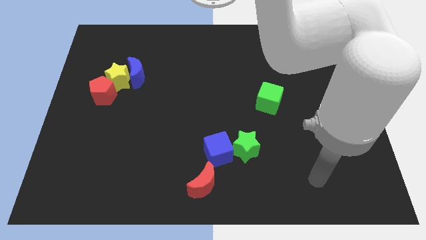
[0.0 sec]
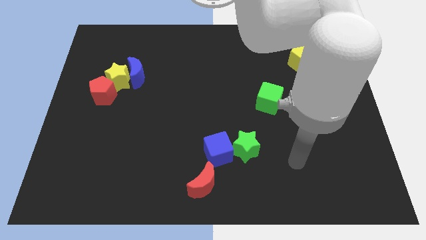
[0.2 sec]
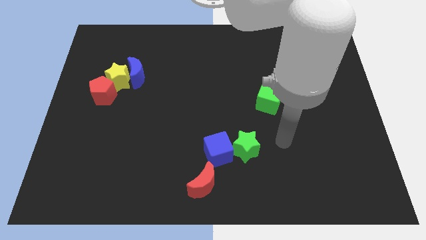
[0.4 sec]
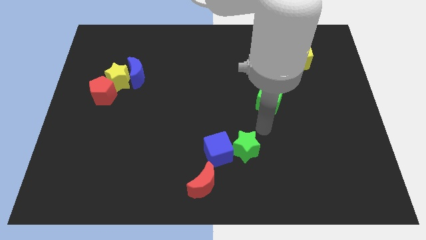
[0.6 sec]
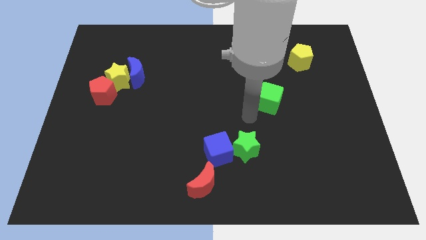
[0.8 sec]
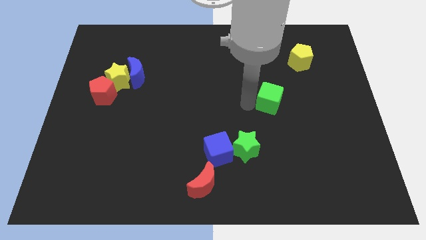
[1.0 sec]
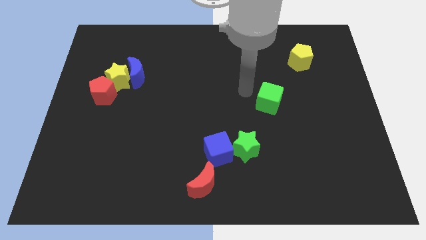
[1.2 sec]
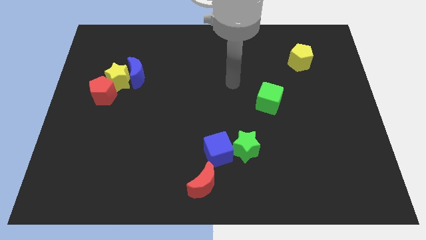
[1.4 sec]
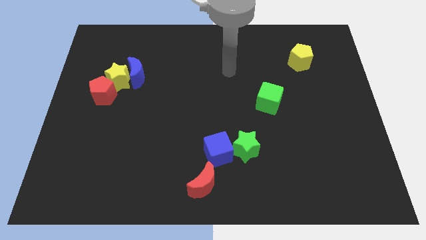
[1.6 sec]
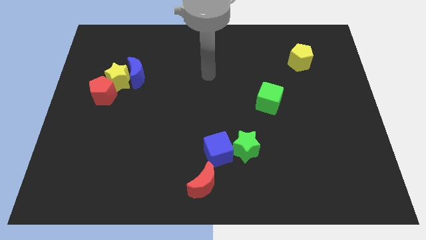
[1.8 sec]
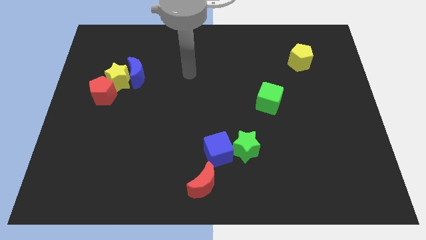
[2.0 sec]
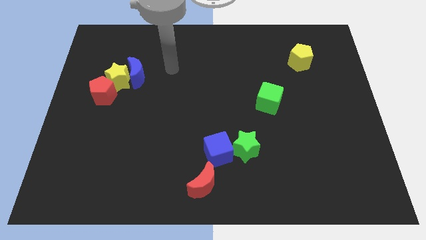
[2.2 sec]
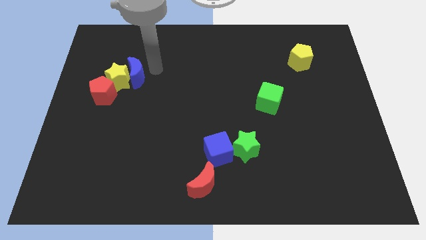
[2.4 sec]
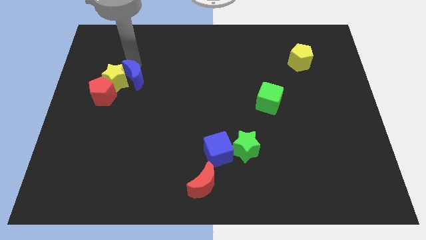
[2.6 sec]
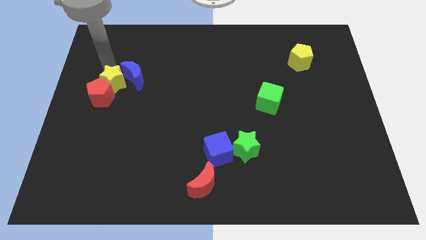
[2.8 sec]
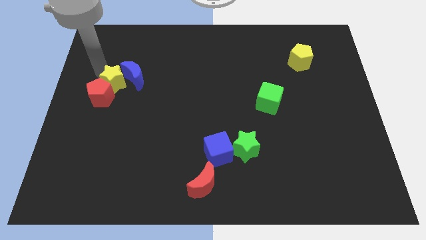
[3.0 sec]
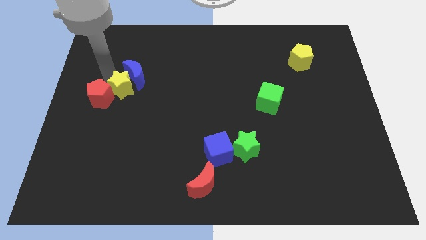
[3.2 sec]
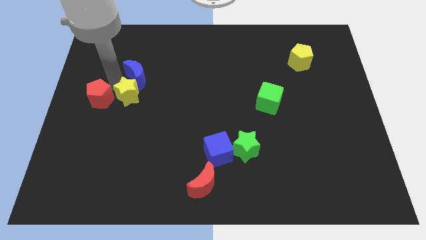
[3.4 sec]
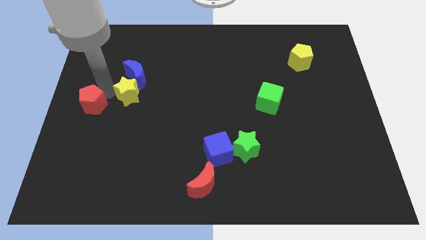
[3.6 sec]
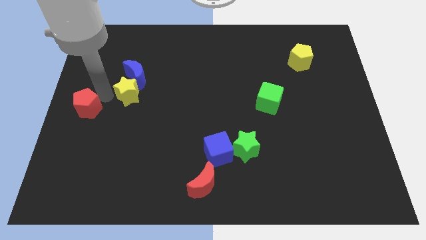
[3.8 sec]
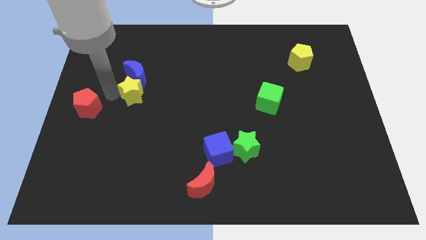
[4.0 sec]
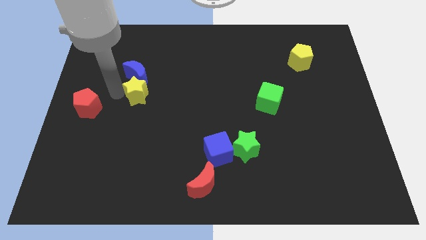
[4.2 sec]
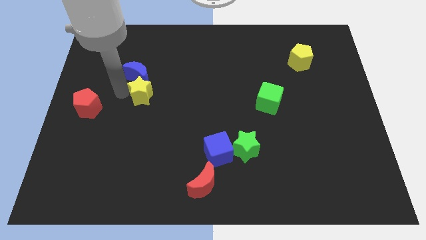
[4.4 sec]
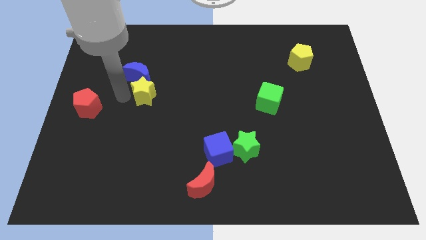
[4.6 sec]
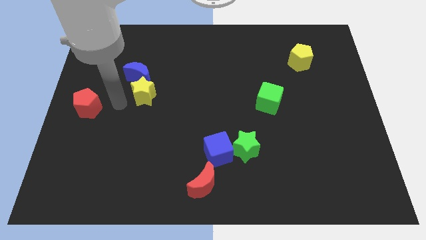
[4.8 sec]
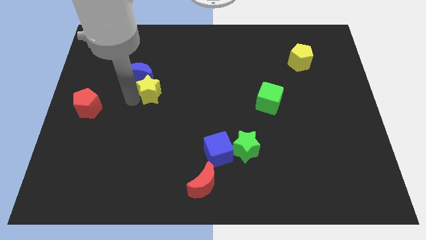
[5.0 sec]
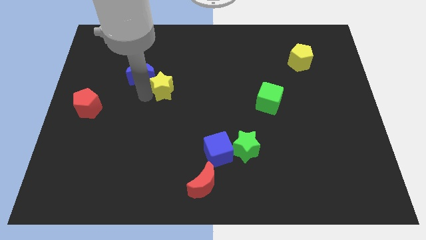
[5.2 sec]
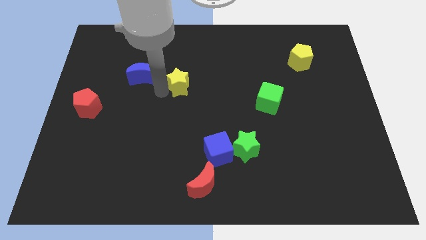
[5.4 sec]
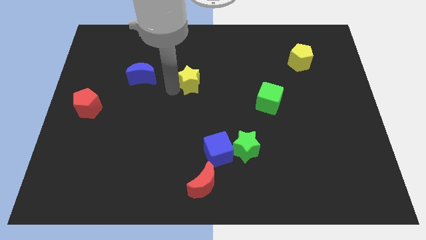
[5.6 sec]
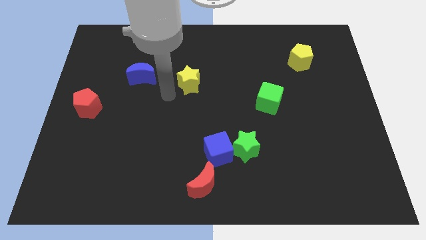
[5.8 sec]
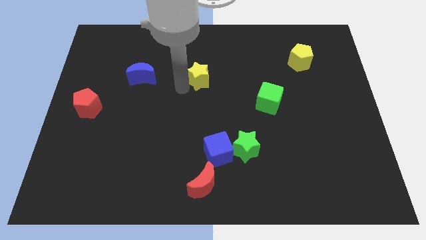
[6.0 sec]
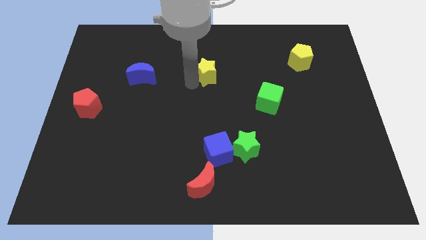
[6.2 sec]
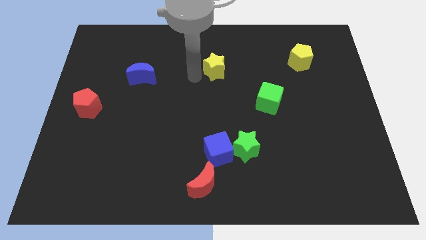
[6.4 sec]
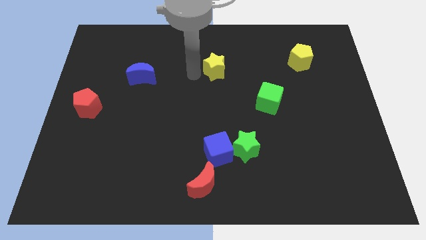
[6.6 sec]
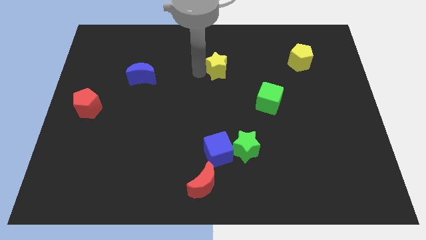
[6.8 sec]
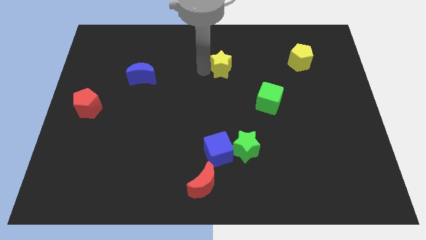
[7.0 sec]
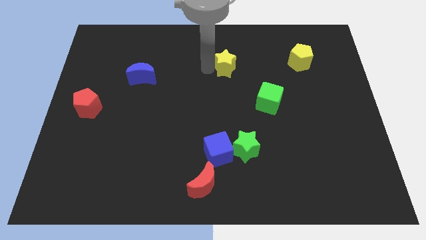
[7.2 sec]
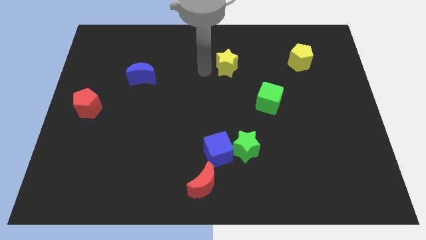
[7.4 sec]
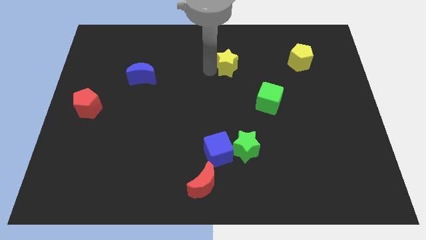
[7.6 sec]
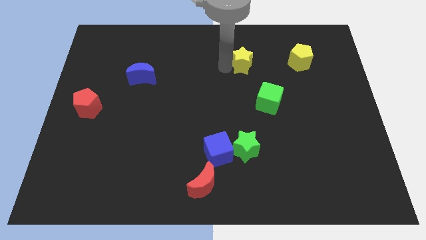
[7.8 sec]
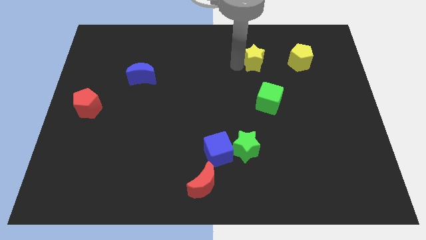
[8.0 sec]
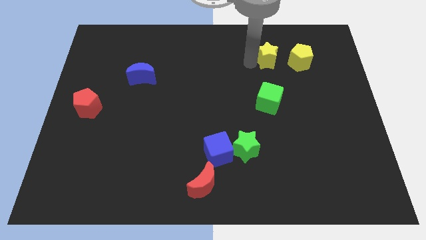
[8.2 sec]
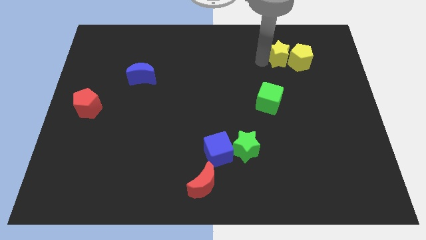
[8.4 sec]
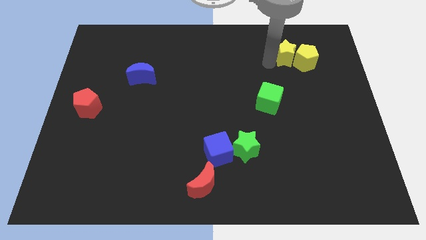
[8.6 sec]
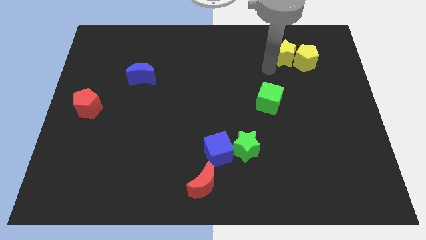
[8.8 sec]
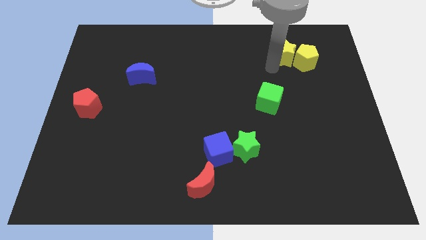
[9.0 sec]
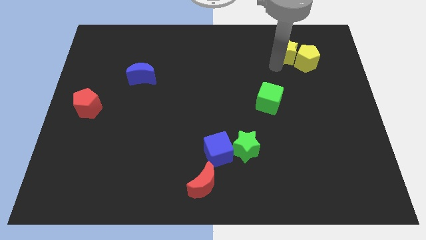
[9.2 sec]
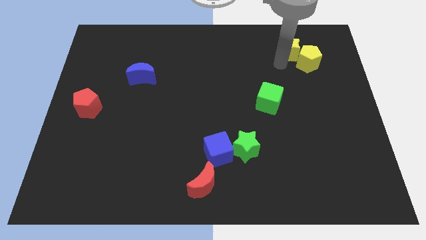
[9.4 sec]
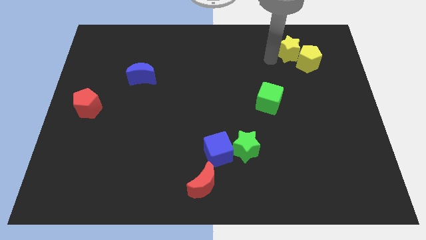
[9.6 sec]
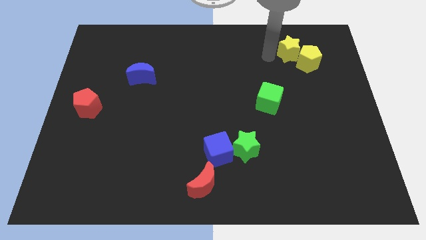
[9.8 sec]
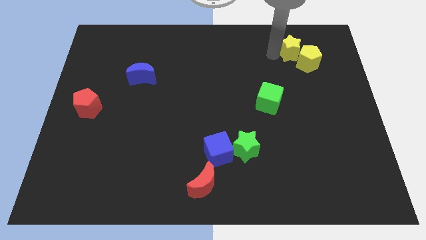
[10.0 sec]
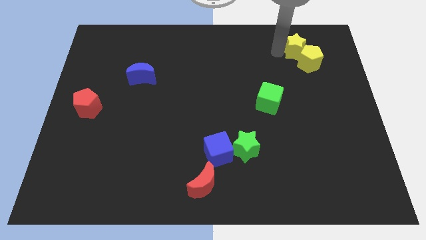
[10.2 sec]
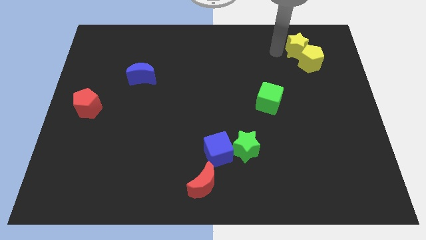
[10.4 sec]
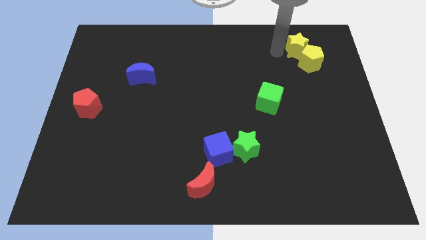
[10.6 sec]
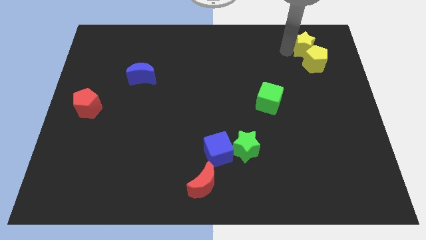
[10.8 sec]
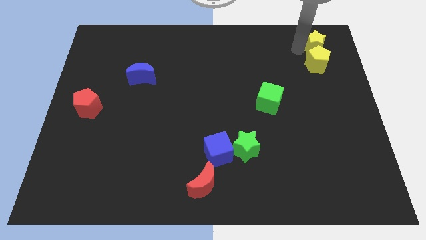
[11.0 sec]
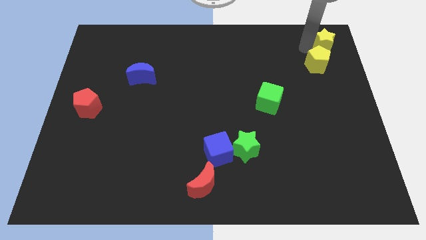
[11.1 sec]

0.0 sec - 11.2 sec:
move the yellow star to the top right of the board
